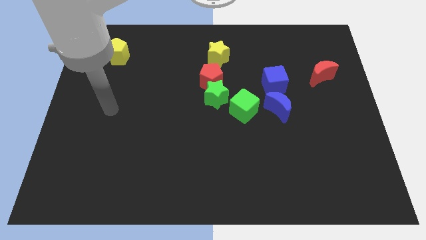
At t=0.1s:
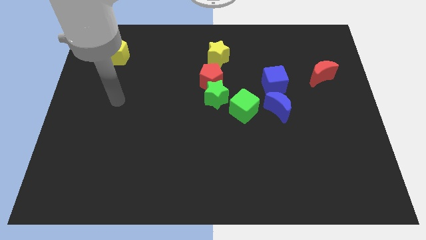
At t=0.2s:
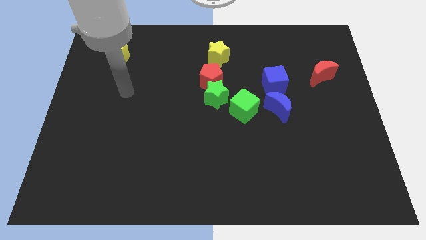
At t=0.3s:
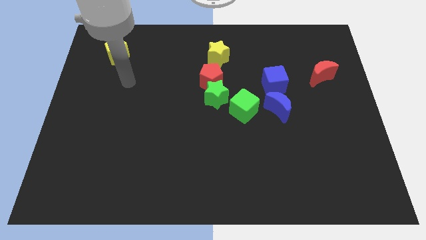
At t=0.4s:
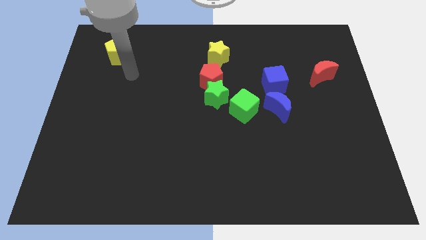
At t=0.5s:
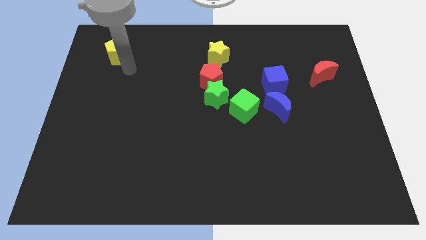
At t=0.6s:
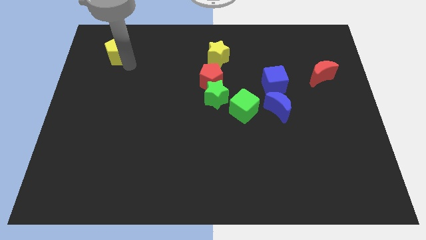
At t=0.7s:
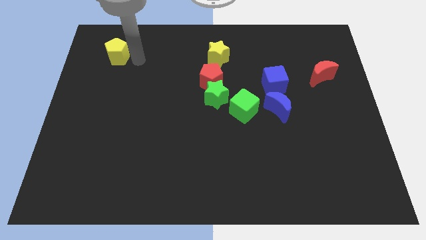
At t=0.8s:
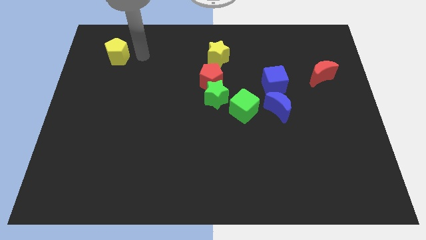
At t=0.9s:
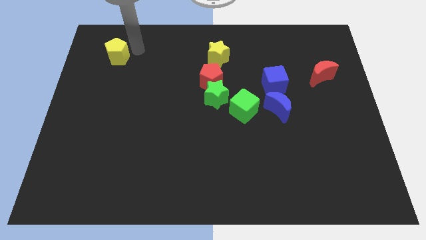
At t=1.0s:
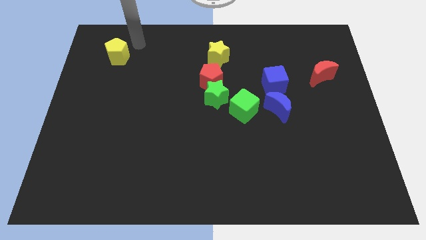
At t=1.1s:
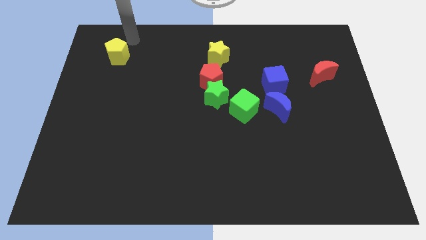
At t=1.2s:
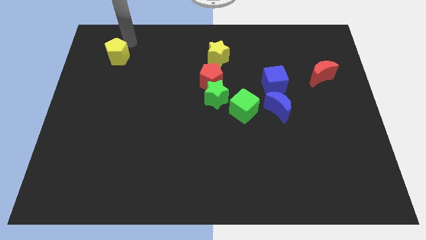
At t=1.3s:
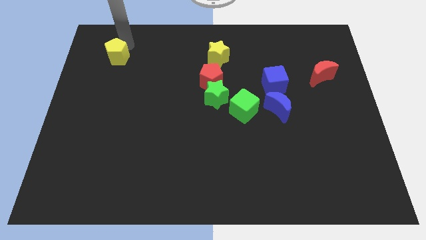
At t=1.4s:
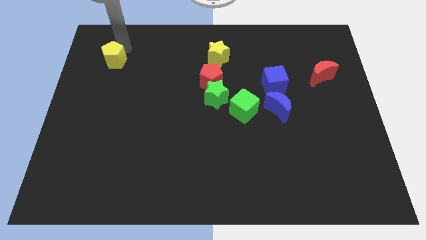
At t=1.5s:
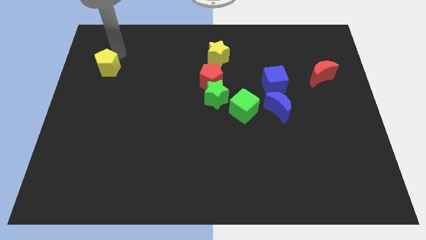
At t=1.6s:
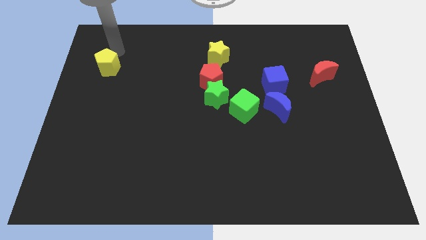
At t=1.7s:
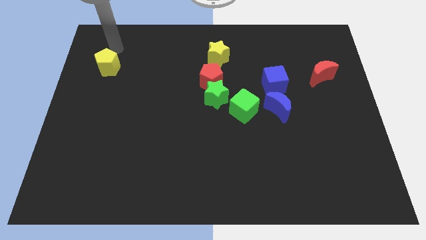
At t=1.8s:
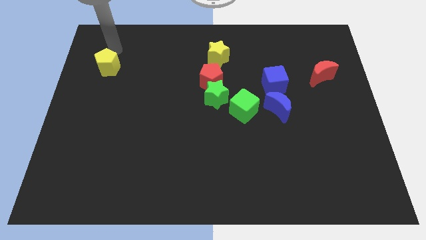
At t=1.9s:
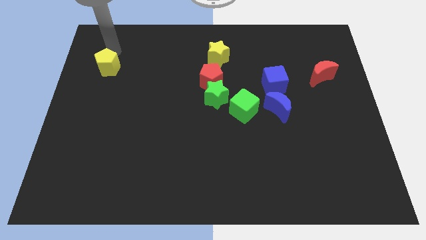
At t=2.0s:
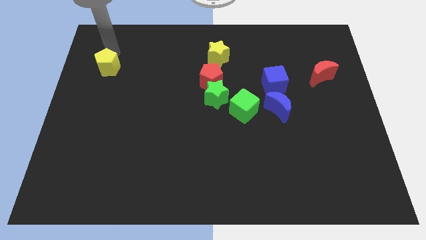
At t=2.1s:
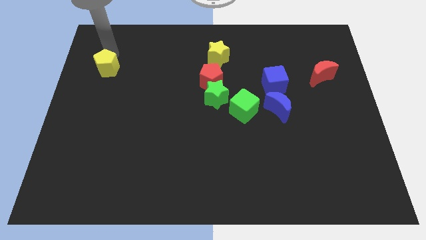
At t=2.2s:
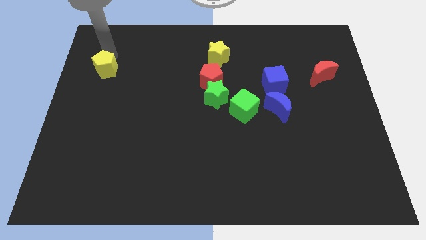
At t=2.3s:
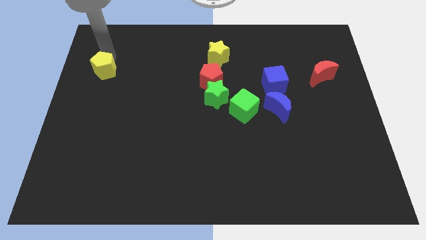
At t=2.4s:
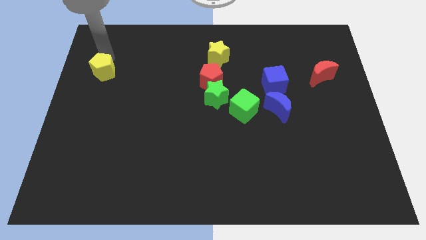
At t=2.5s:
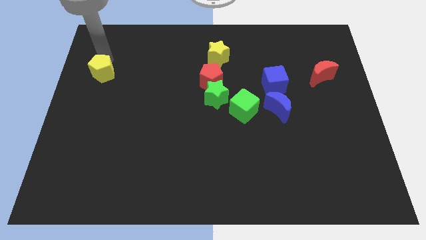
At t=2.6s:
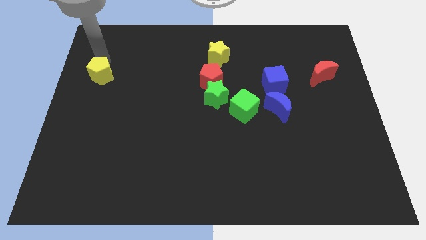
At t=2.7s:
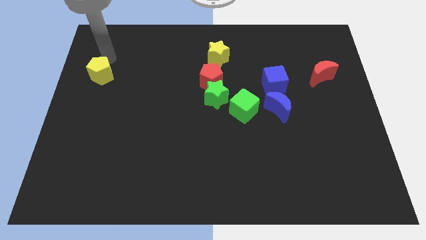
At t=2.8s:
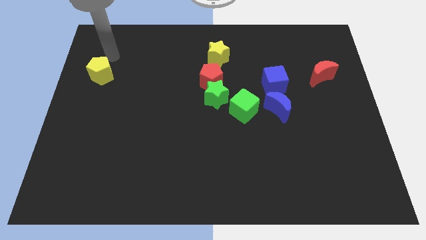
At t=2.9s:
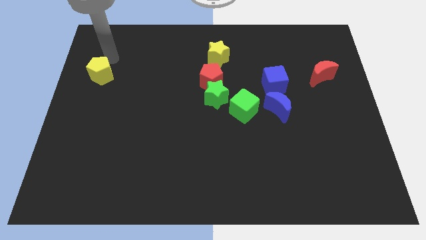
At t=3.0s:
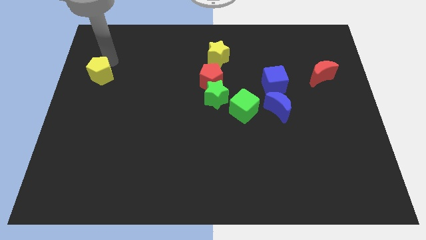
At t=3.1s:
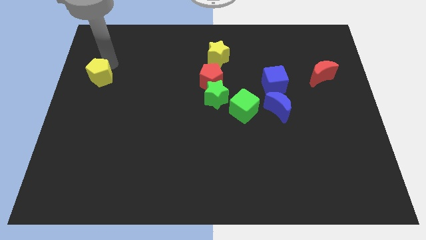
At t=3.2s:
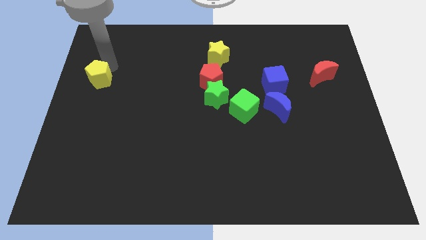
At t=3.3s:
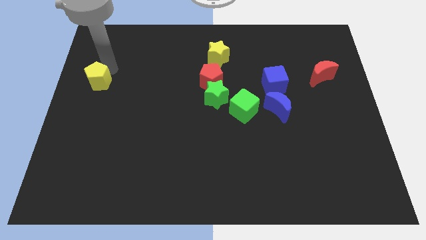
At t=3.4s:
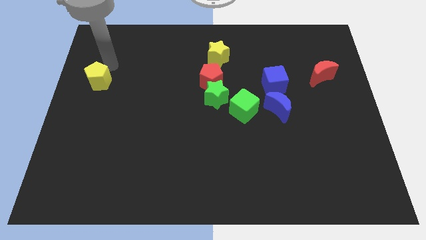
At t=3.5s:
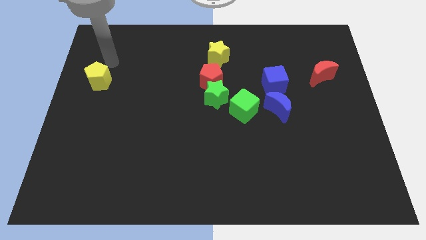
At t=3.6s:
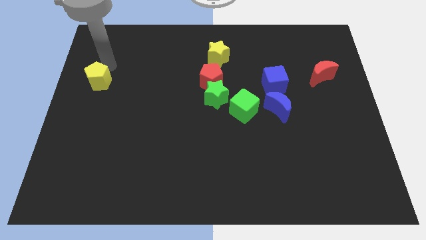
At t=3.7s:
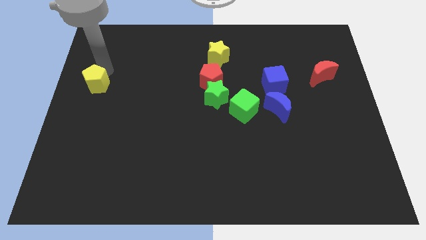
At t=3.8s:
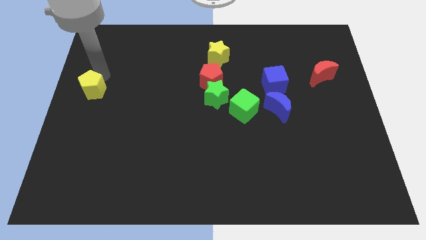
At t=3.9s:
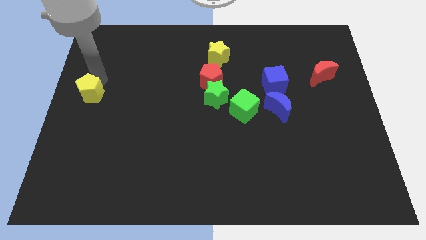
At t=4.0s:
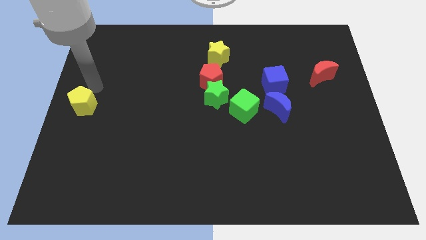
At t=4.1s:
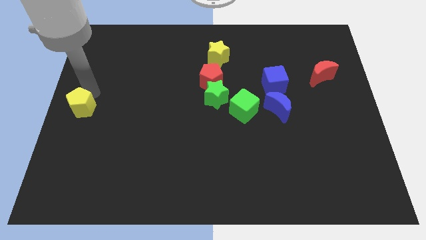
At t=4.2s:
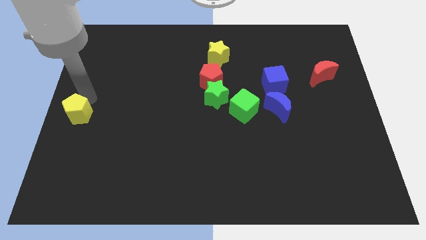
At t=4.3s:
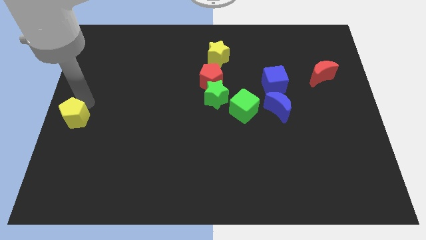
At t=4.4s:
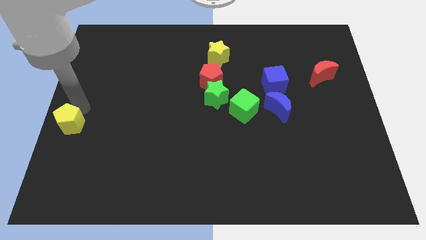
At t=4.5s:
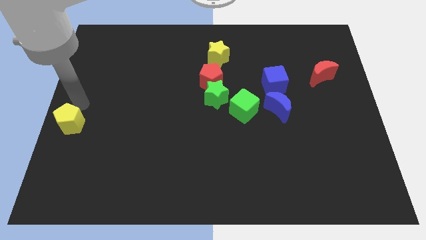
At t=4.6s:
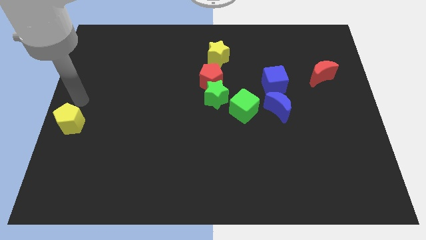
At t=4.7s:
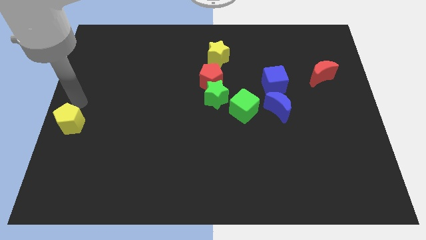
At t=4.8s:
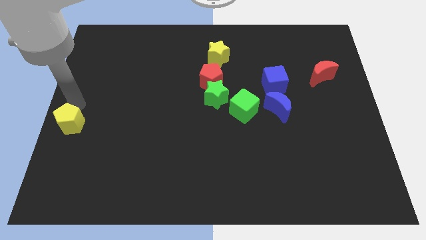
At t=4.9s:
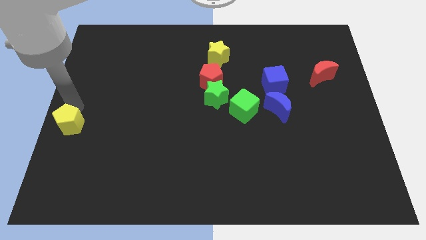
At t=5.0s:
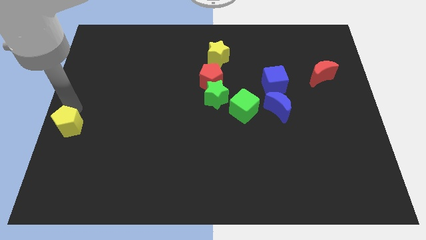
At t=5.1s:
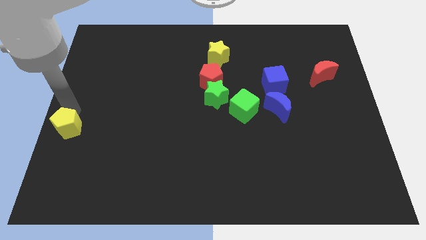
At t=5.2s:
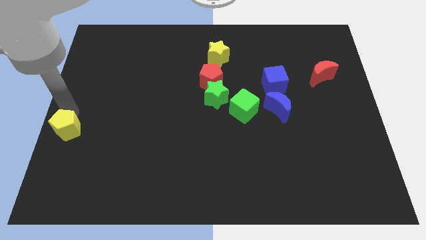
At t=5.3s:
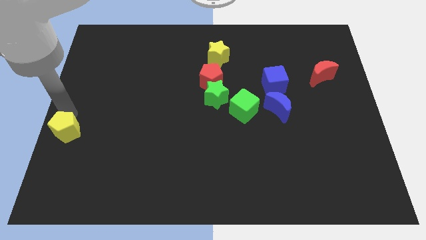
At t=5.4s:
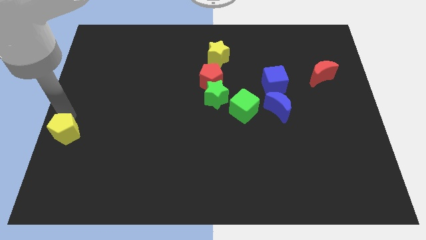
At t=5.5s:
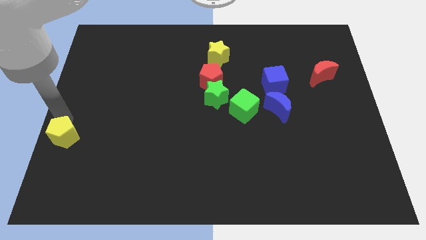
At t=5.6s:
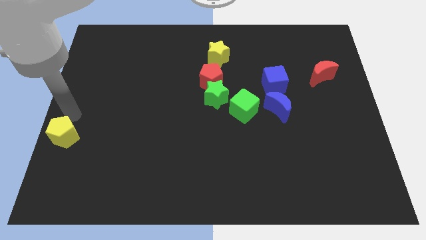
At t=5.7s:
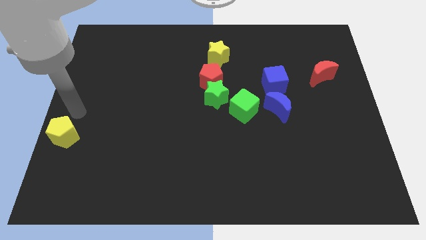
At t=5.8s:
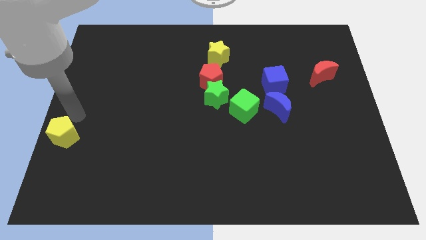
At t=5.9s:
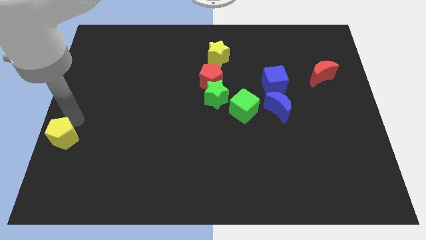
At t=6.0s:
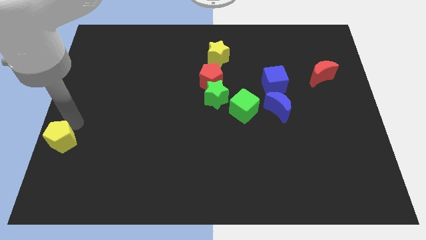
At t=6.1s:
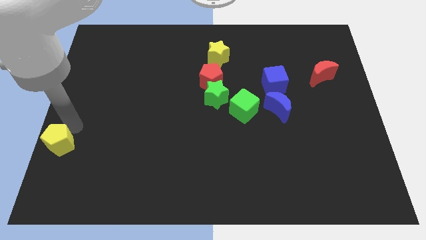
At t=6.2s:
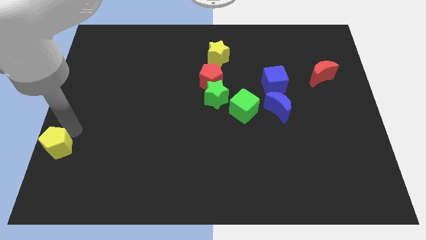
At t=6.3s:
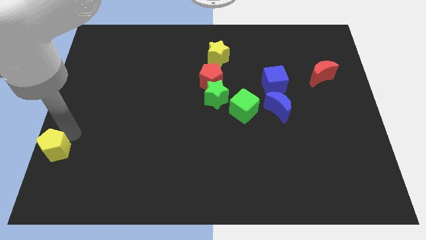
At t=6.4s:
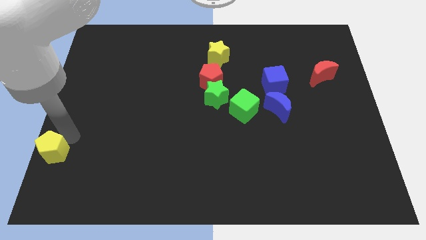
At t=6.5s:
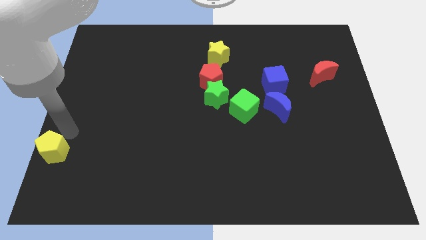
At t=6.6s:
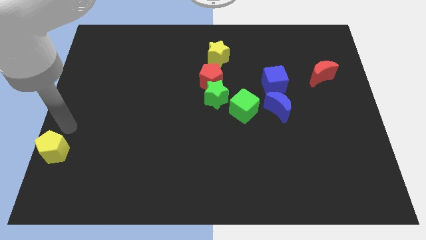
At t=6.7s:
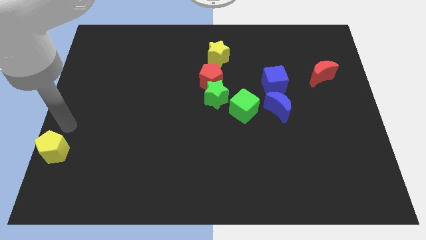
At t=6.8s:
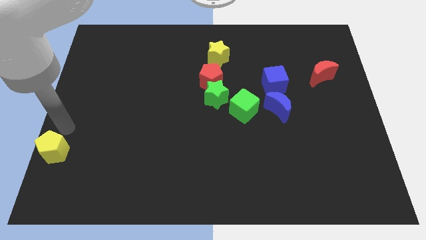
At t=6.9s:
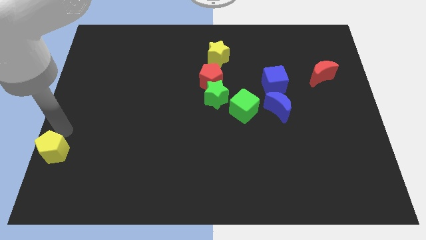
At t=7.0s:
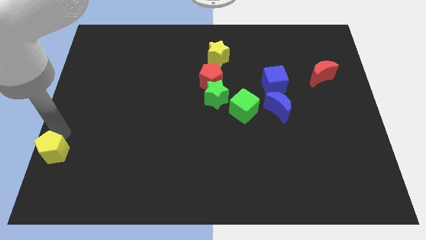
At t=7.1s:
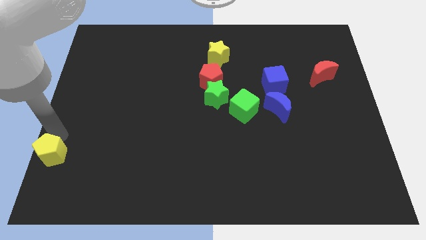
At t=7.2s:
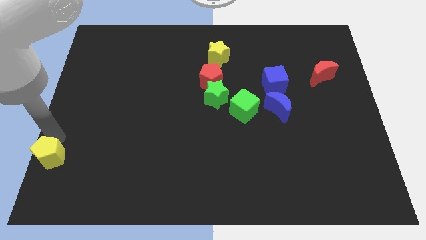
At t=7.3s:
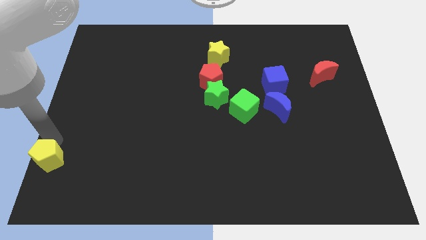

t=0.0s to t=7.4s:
move the yellow pentagon to the bottom left

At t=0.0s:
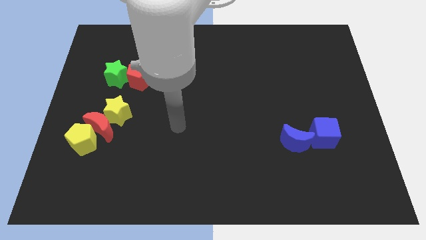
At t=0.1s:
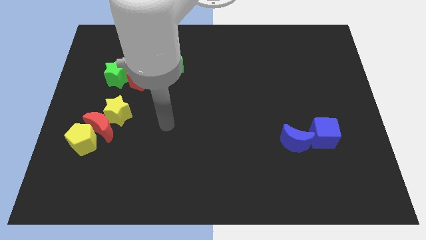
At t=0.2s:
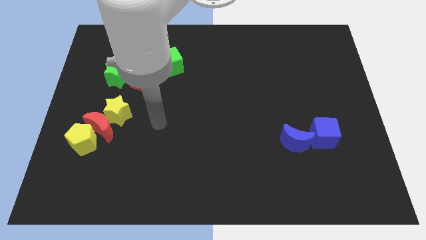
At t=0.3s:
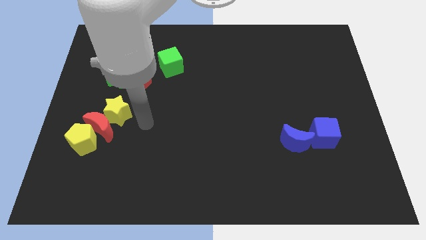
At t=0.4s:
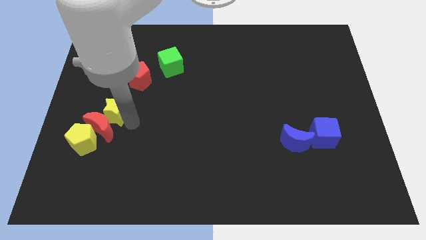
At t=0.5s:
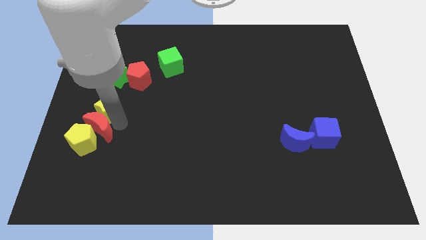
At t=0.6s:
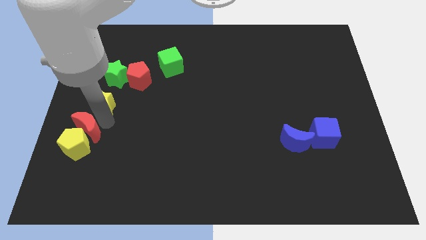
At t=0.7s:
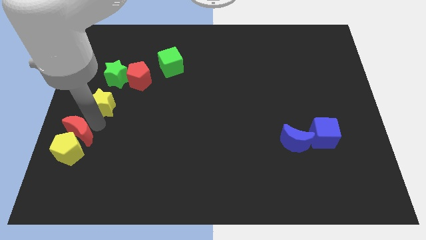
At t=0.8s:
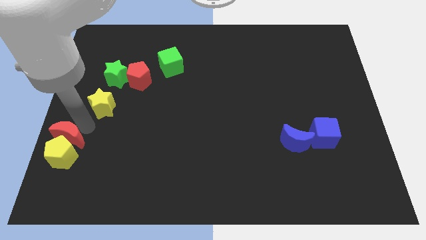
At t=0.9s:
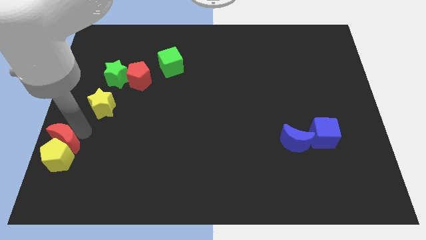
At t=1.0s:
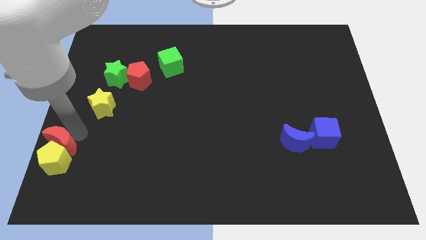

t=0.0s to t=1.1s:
push the yellow pentagon to the lower left corner
